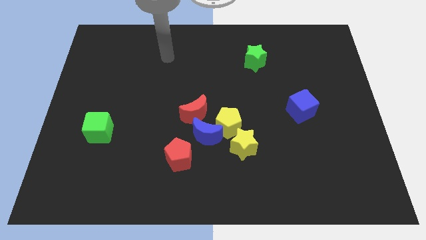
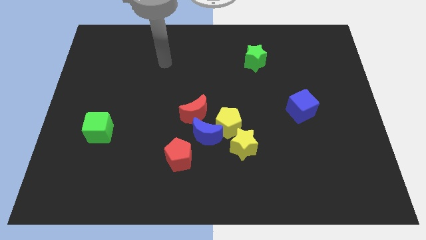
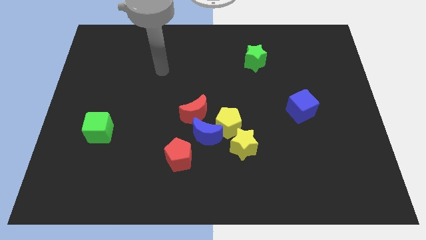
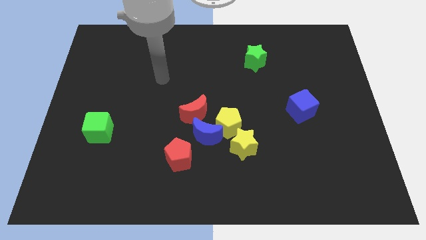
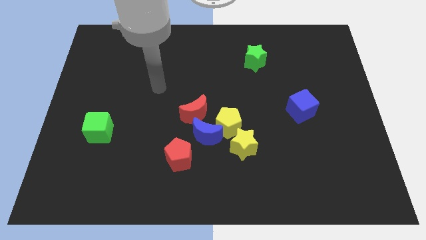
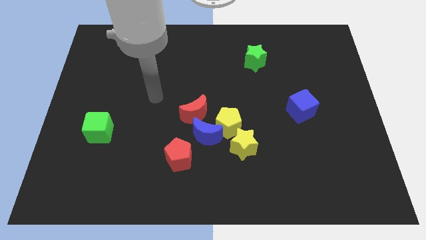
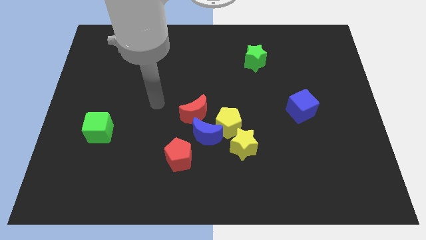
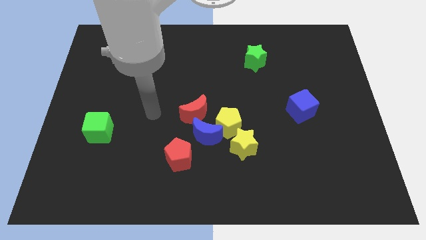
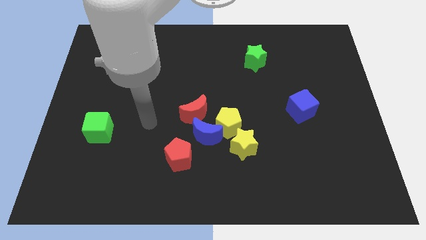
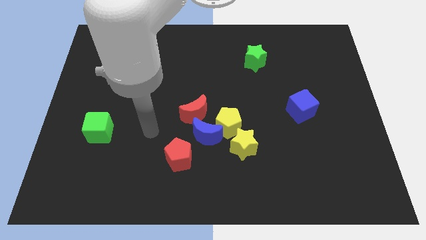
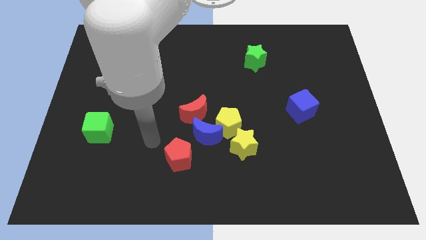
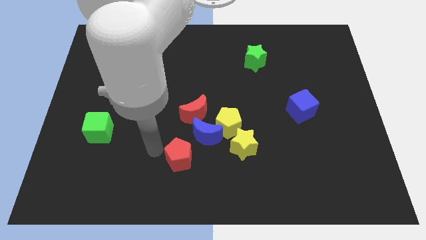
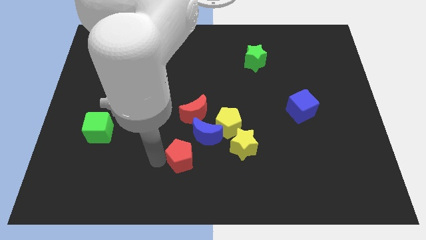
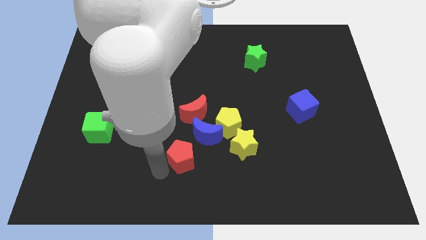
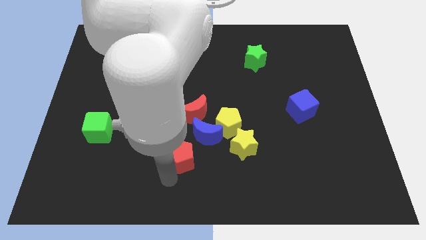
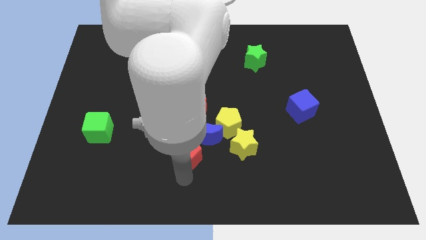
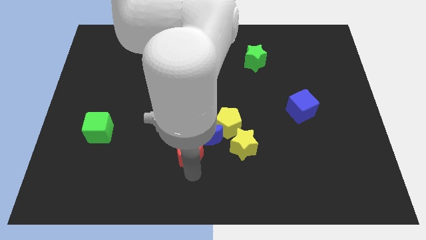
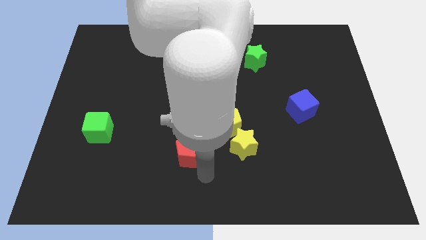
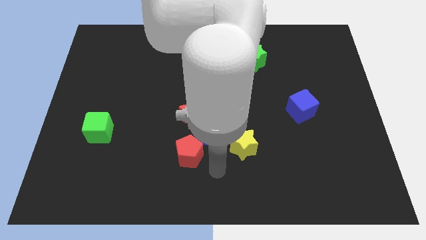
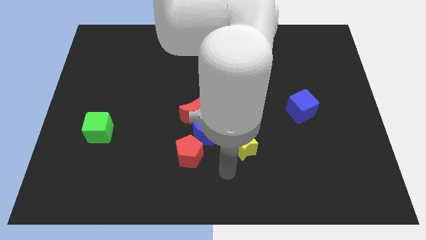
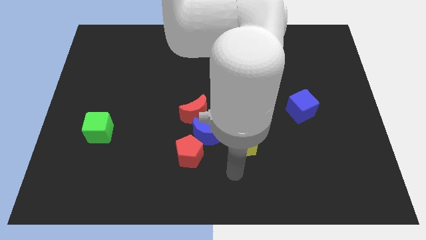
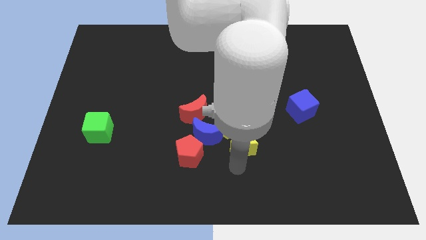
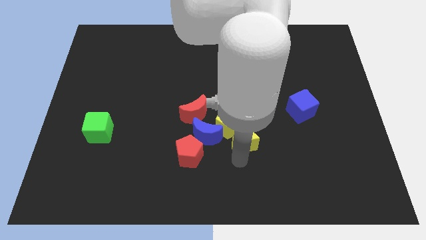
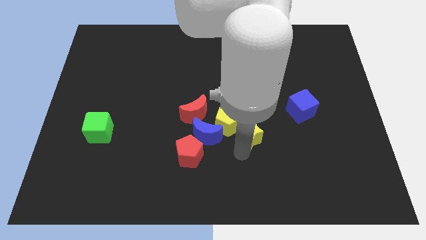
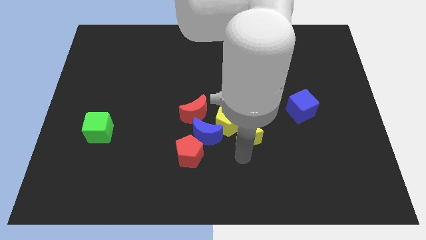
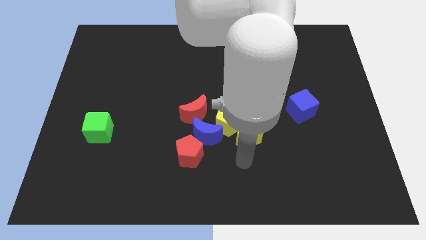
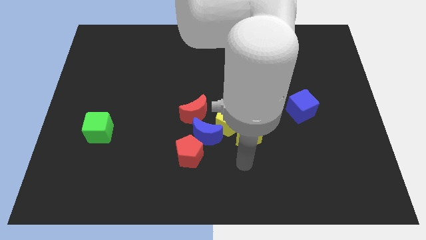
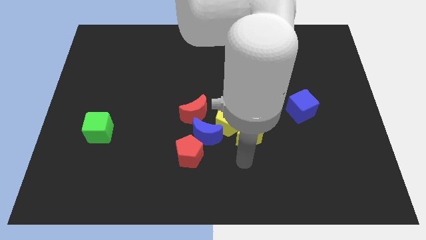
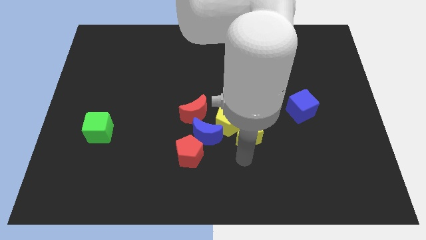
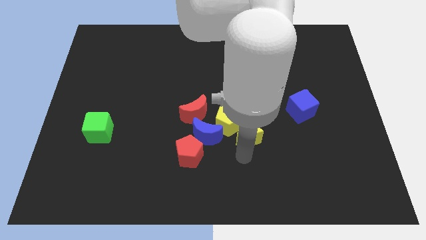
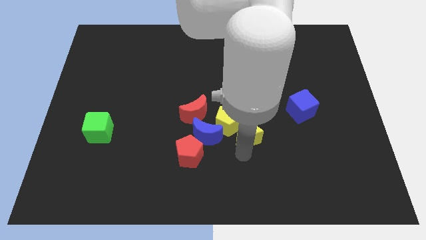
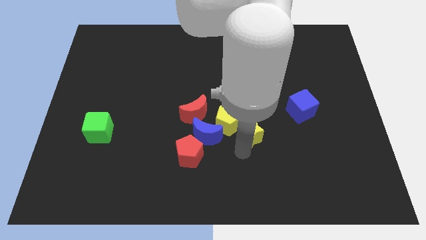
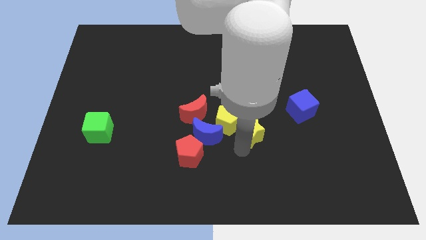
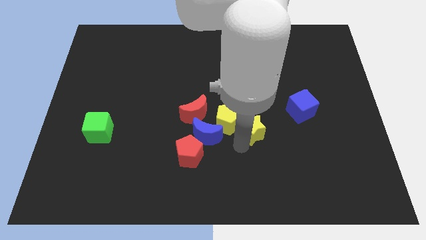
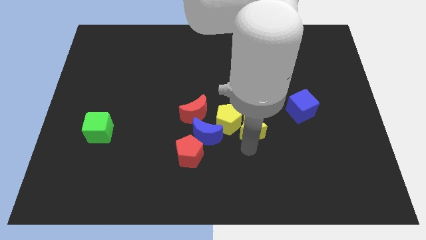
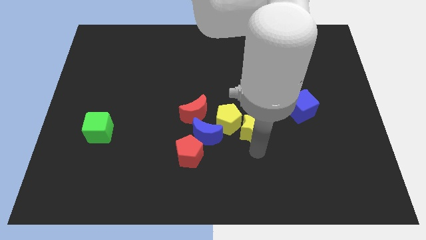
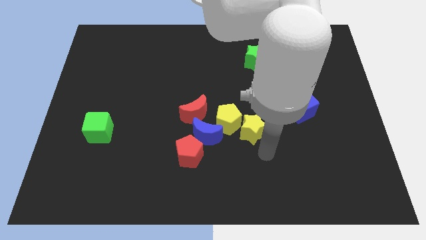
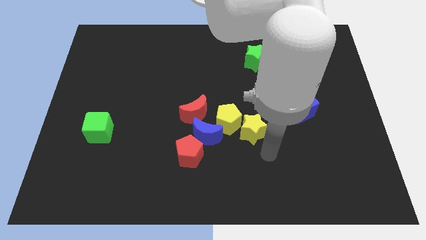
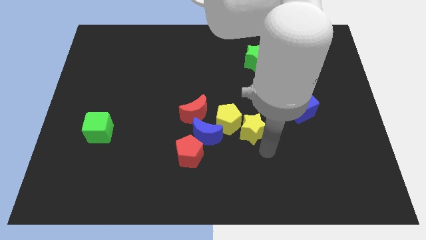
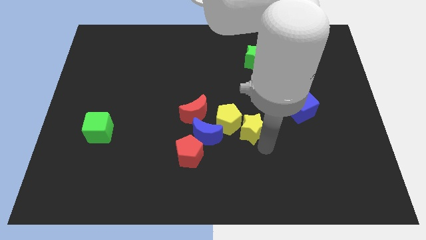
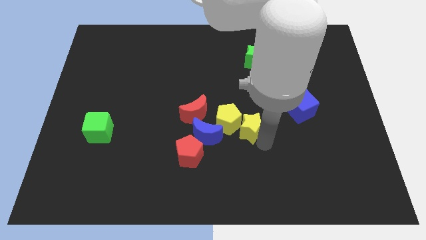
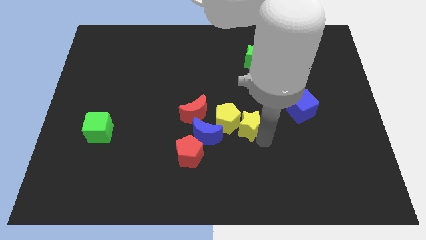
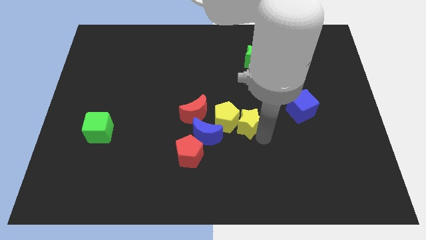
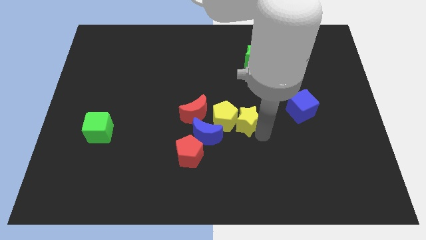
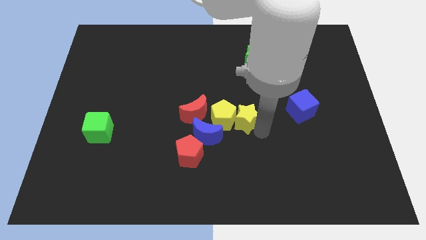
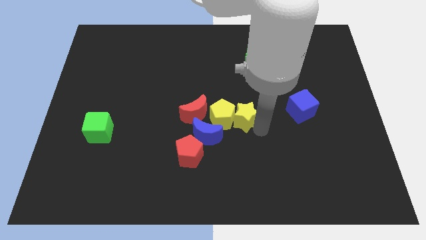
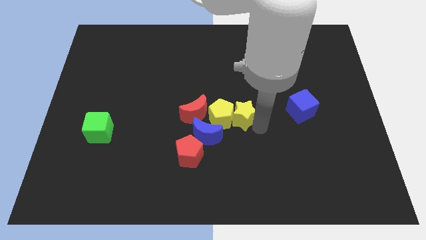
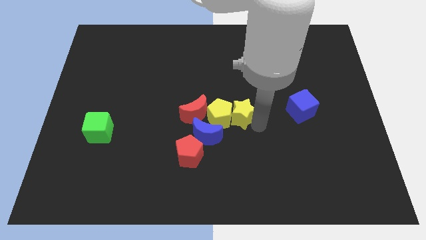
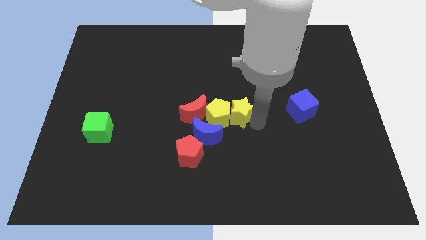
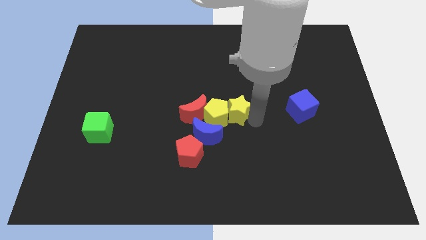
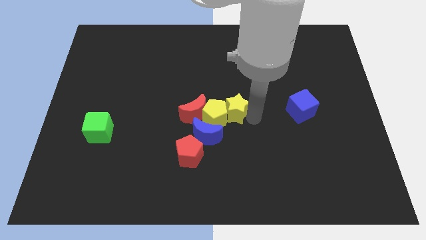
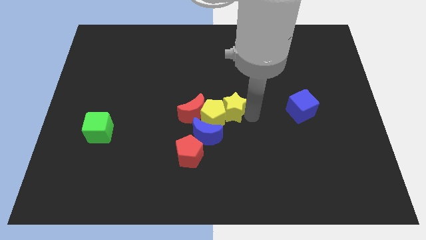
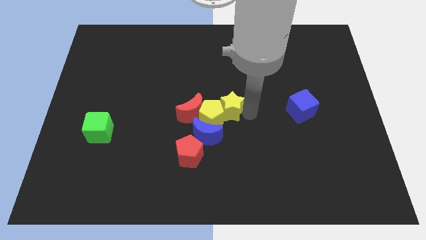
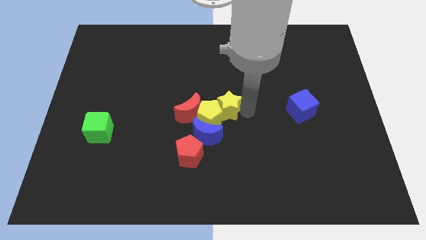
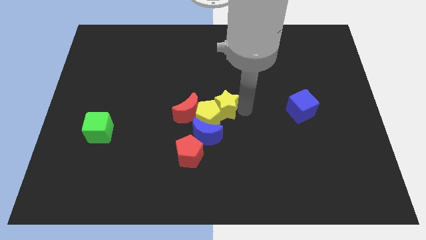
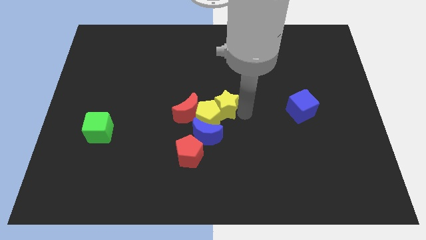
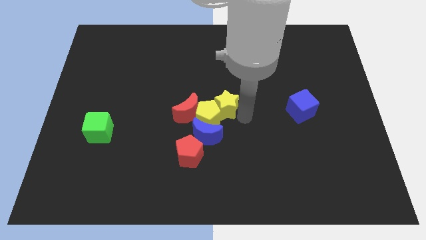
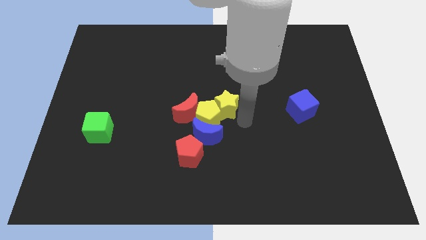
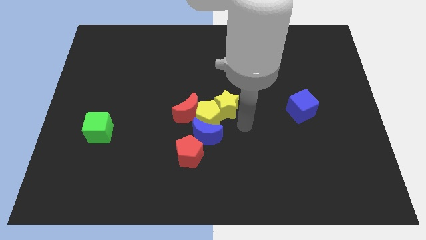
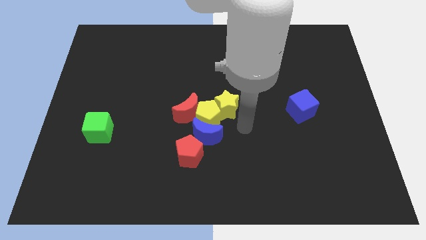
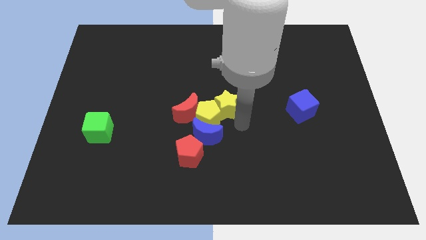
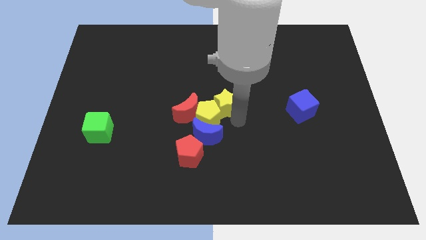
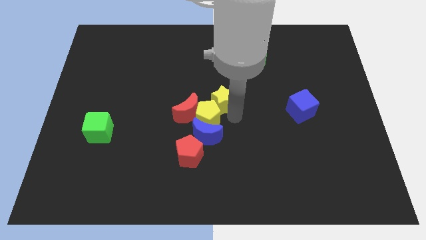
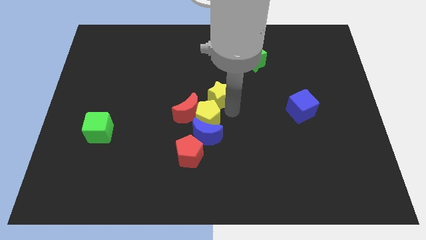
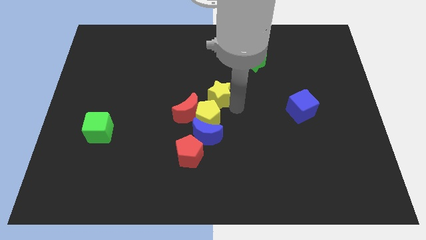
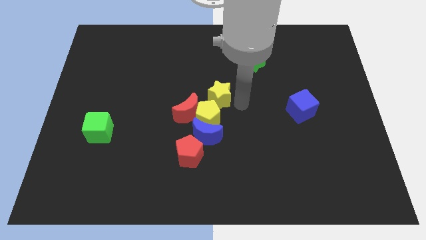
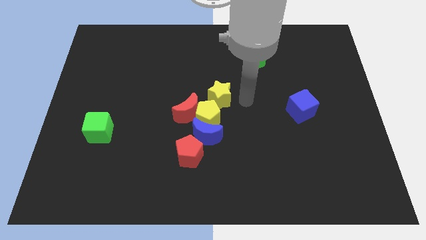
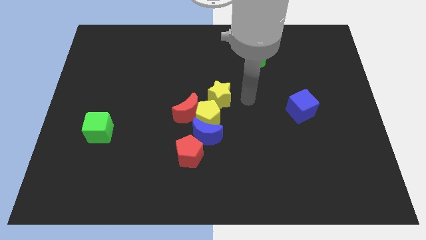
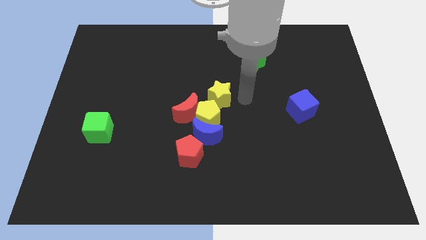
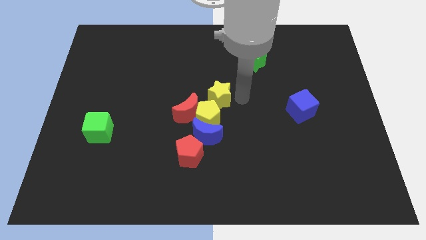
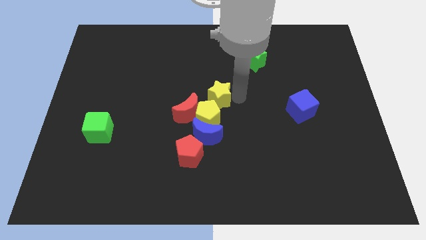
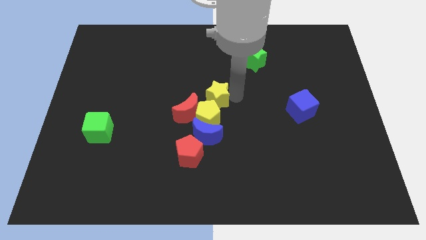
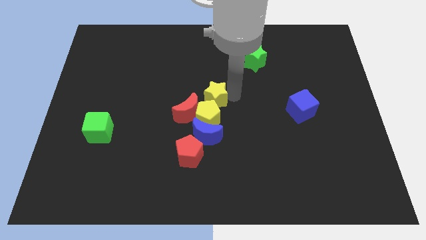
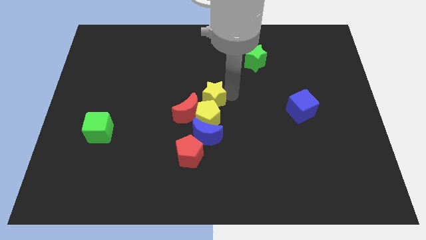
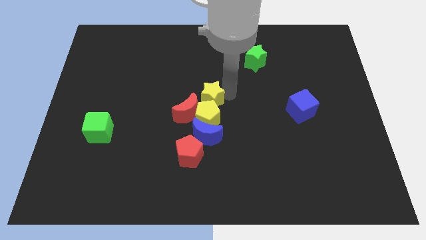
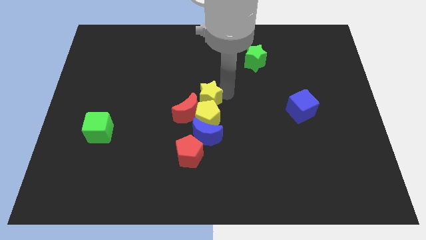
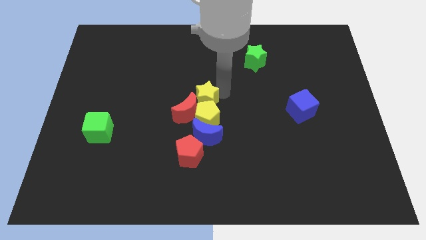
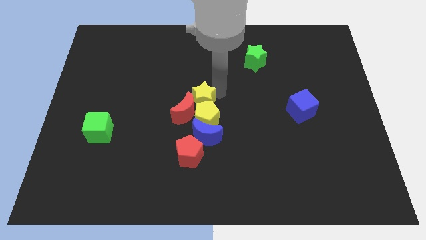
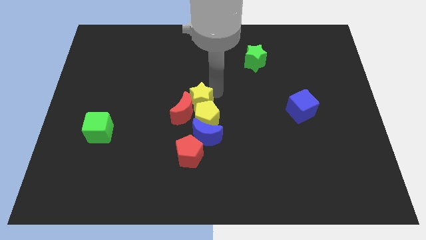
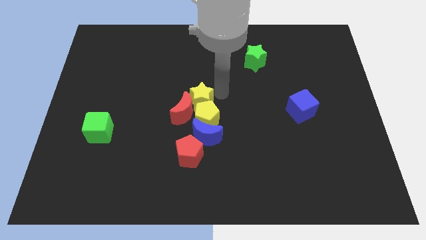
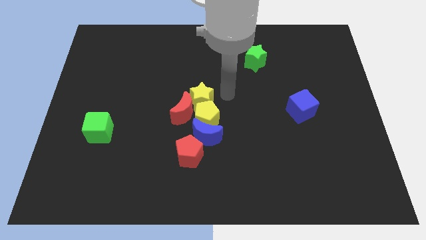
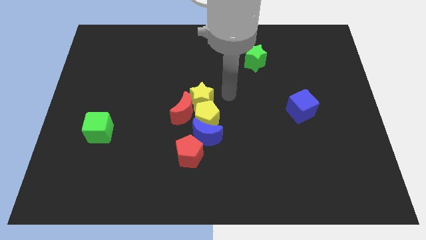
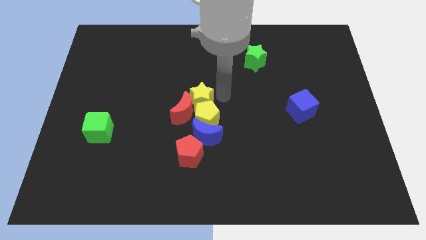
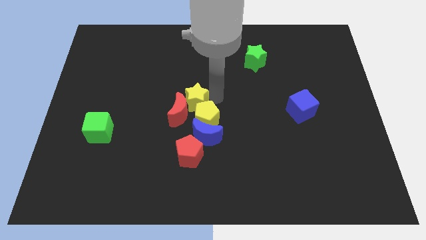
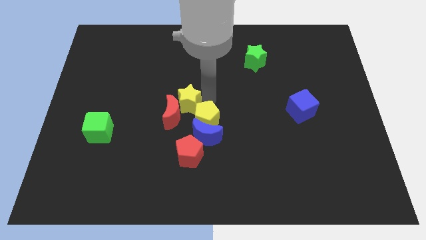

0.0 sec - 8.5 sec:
put the yellow star diagonally up and to the left of the blue moon
